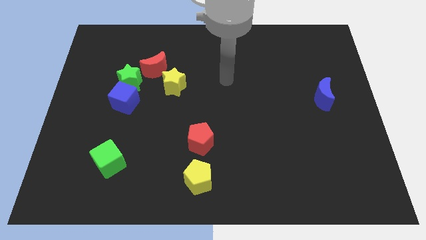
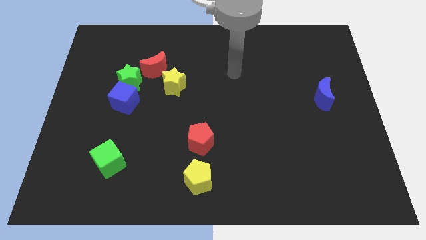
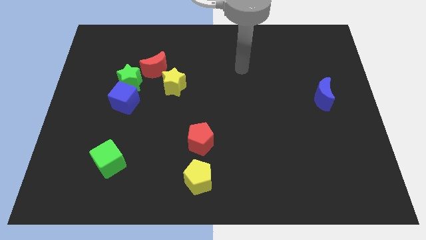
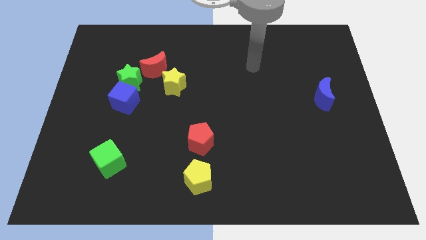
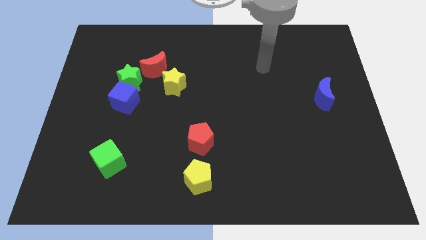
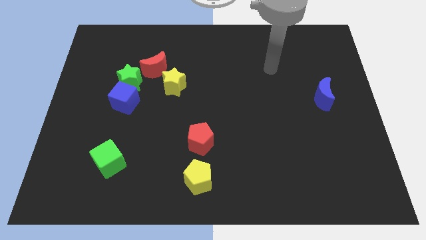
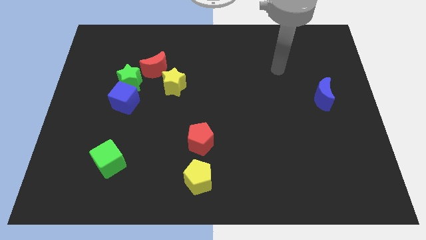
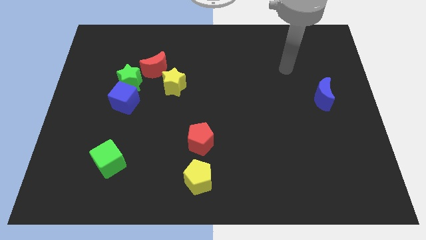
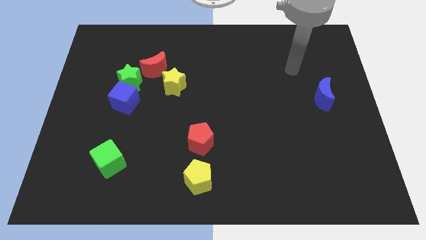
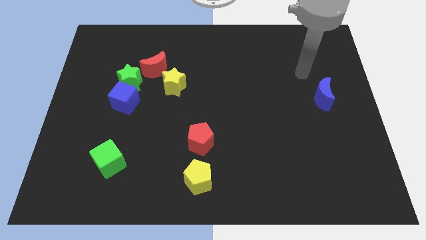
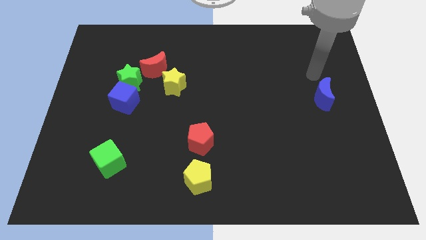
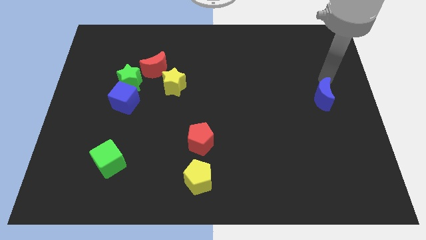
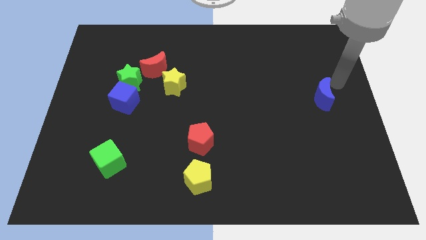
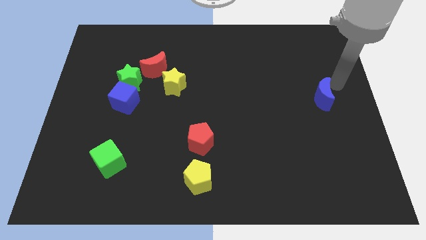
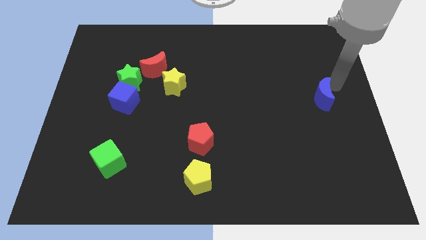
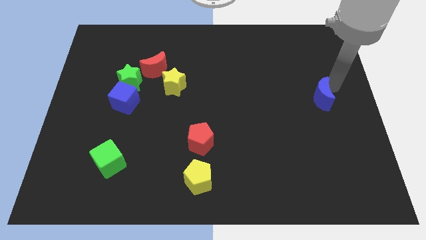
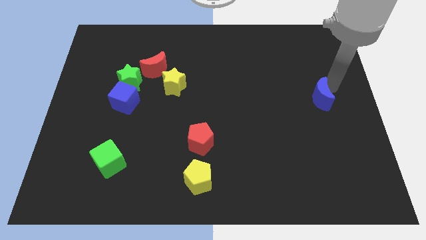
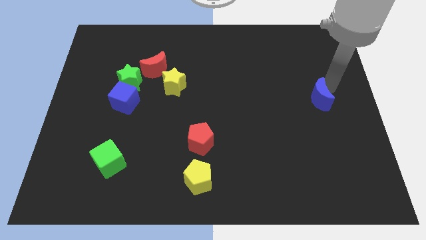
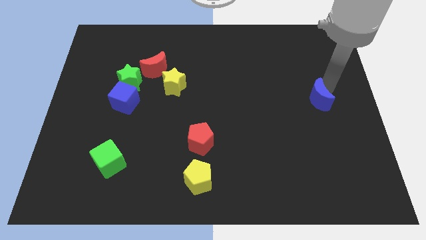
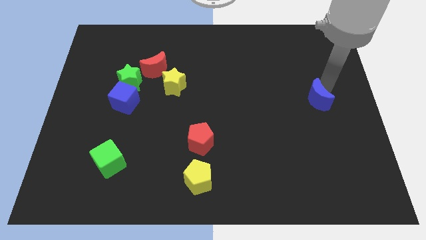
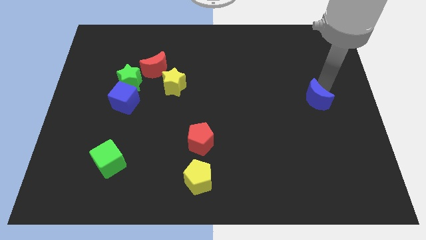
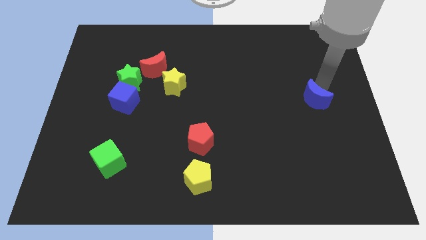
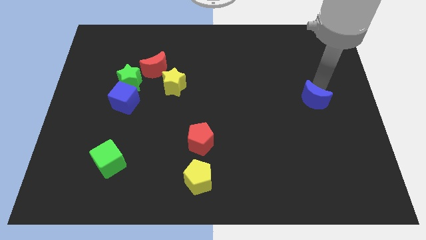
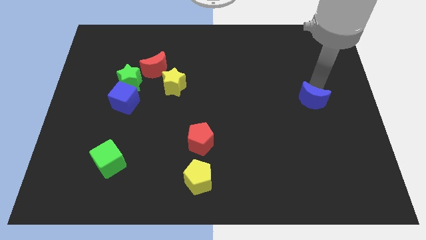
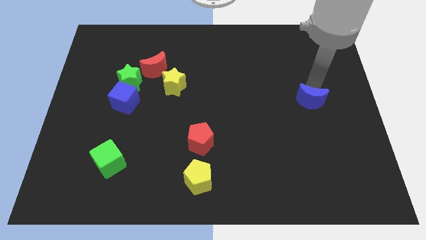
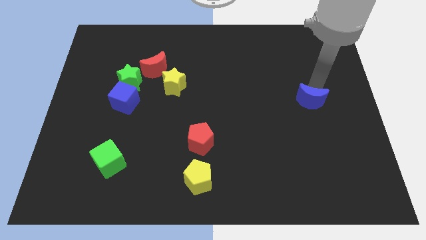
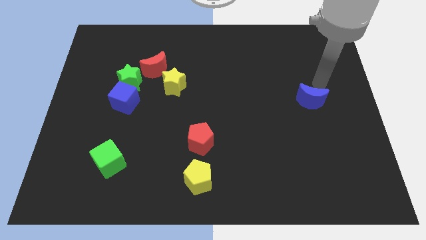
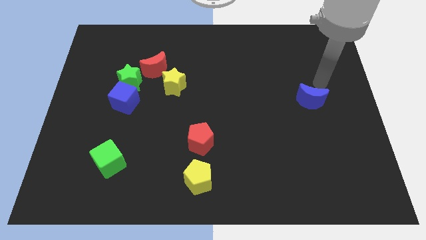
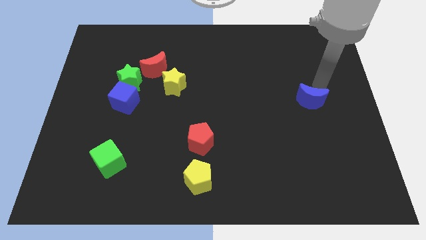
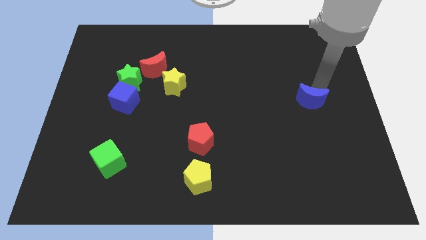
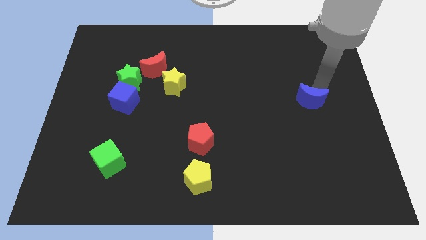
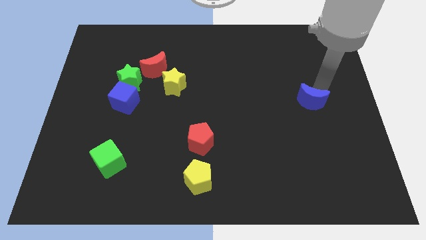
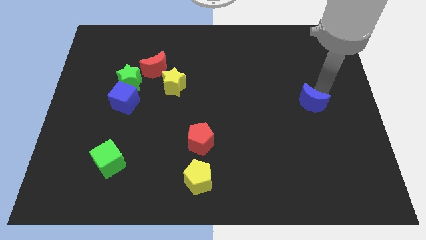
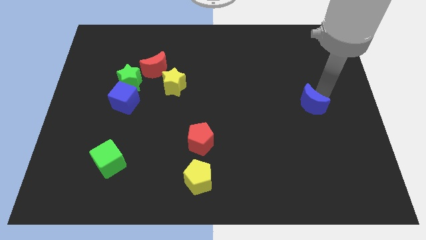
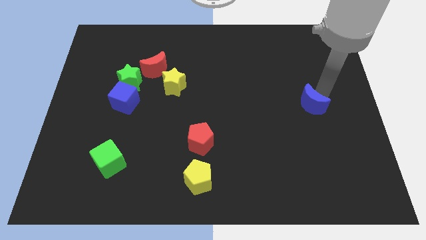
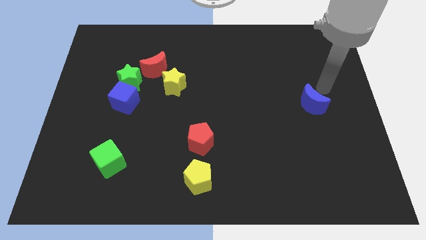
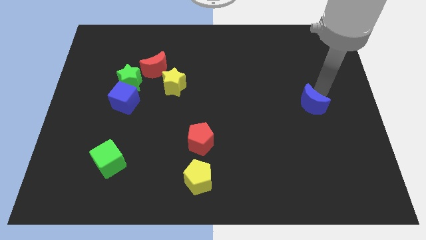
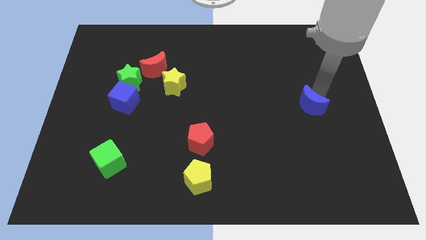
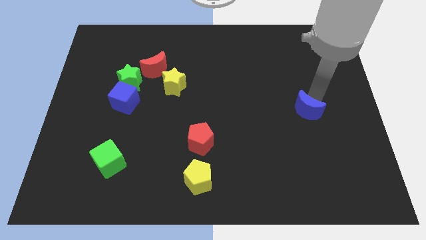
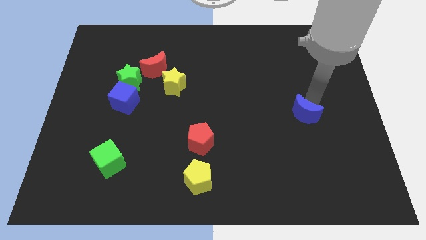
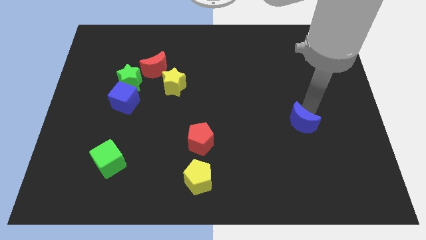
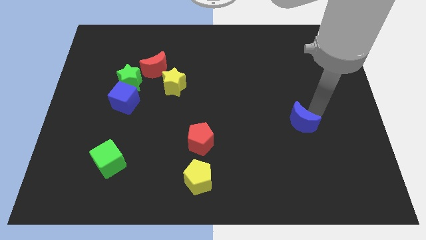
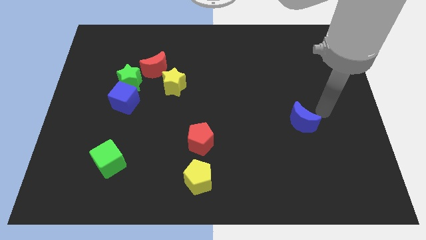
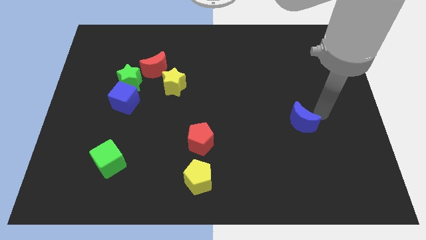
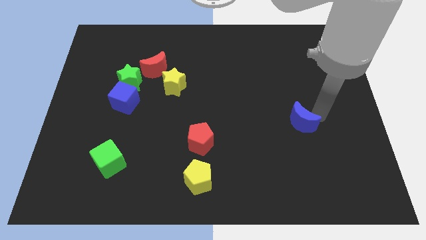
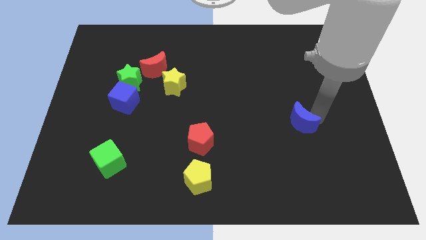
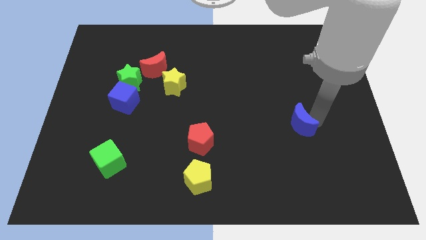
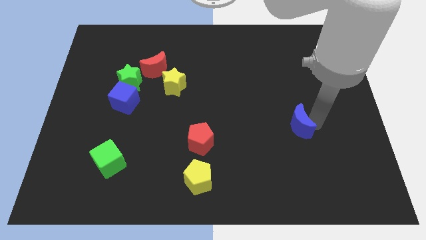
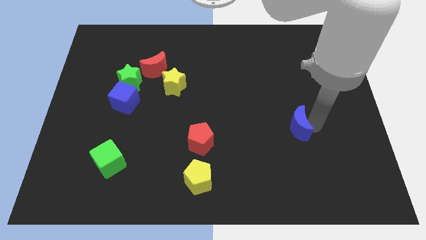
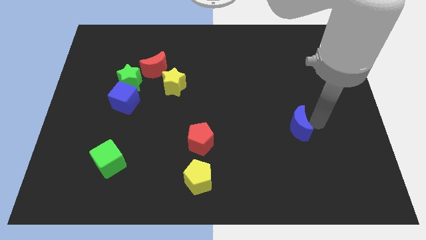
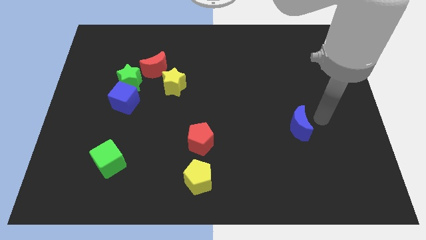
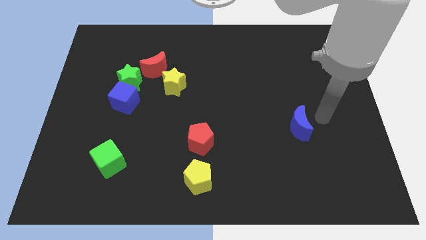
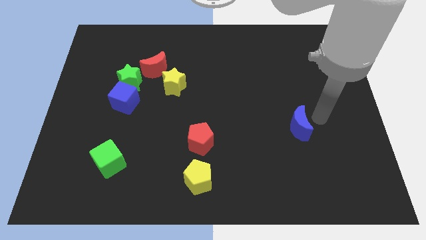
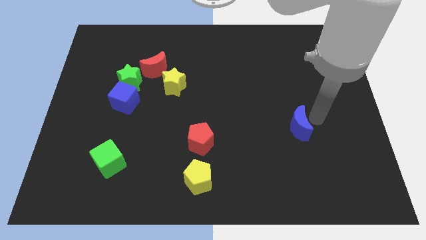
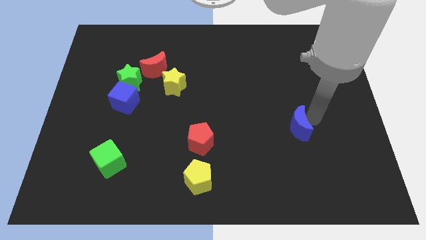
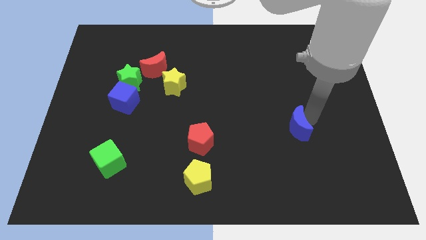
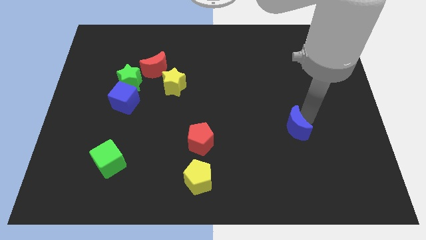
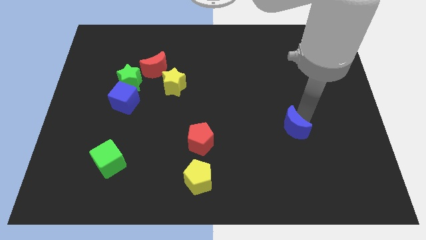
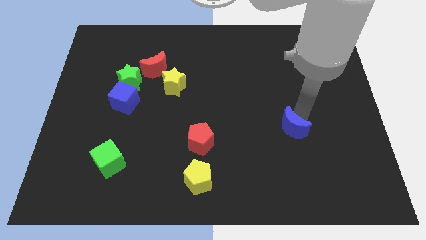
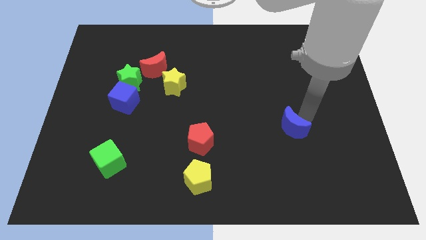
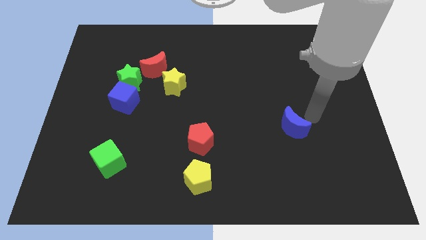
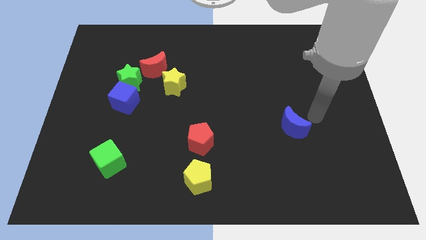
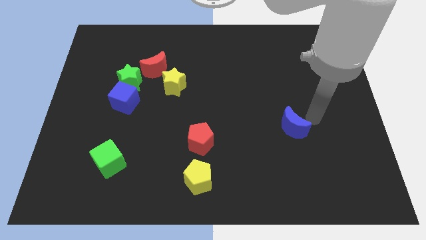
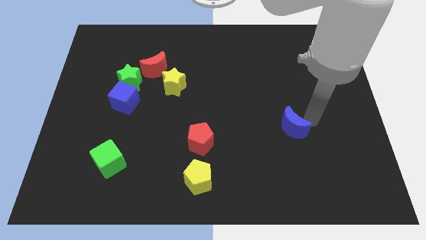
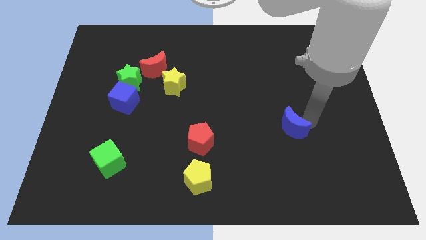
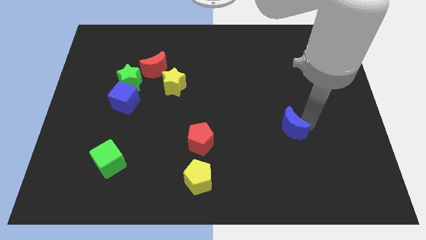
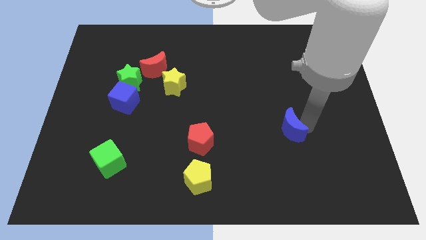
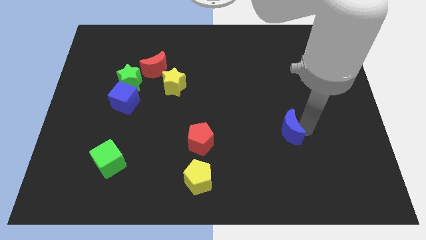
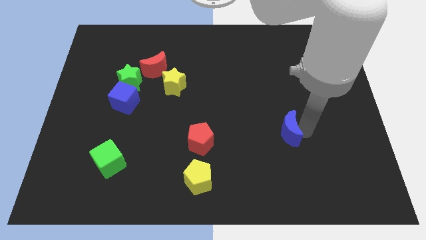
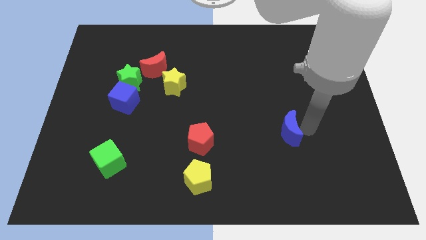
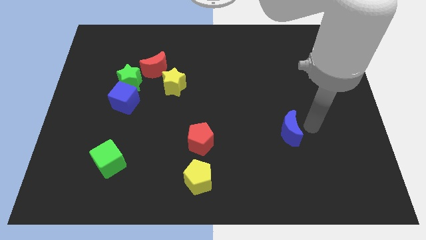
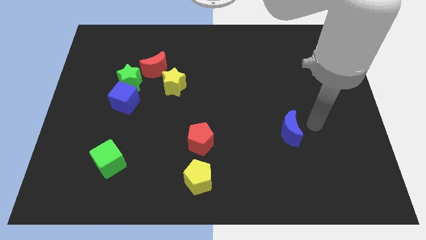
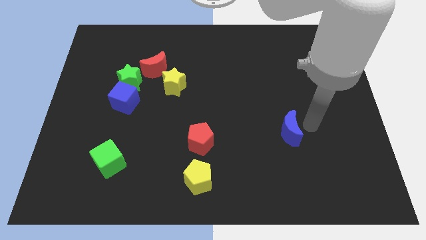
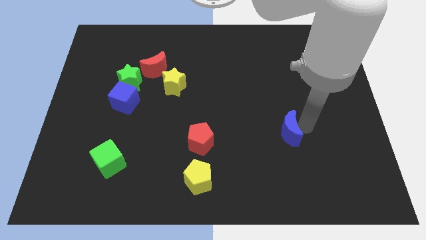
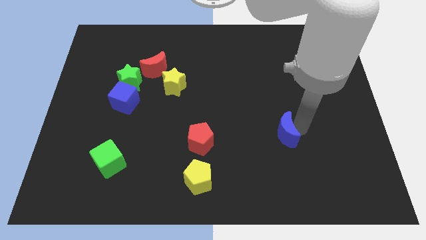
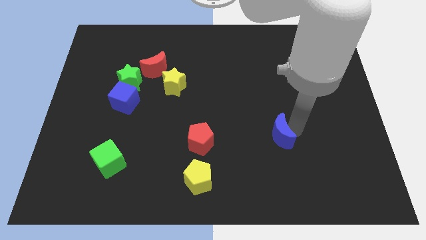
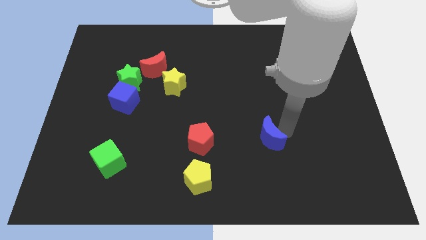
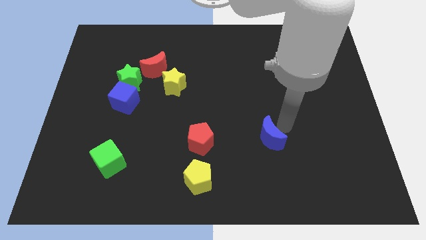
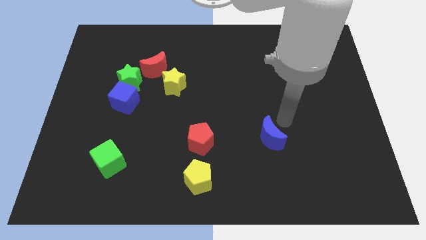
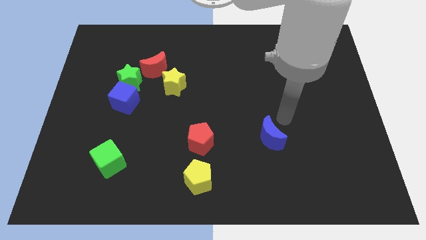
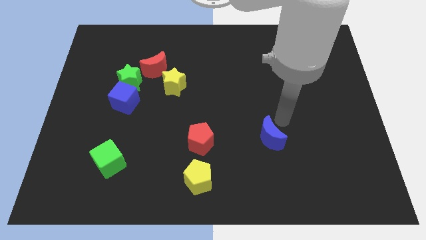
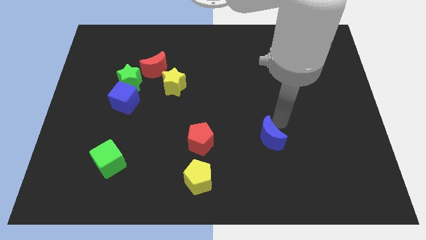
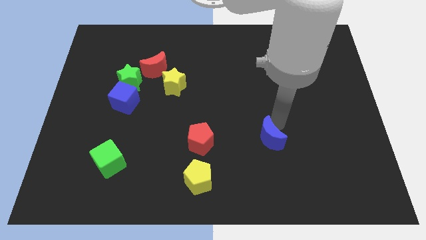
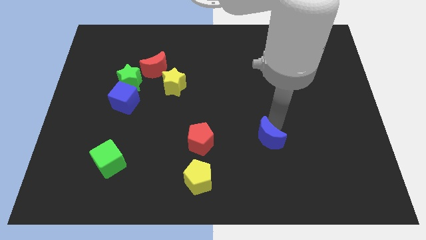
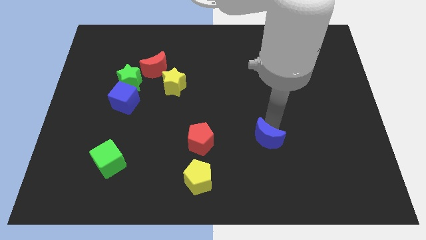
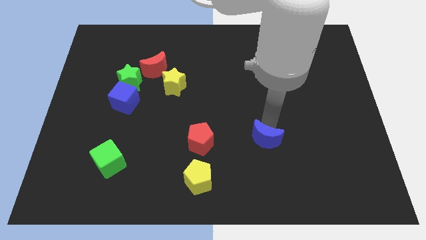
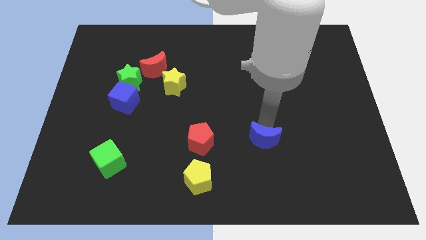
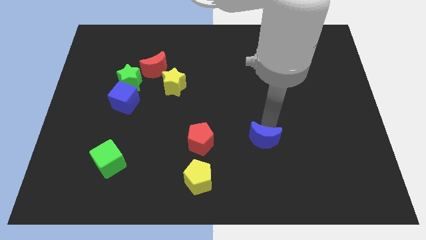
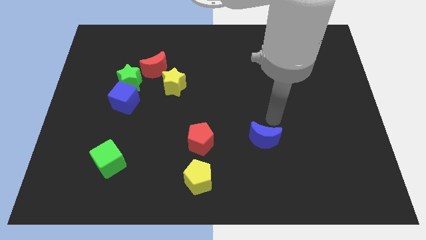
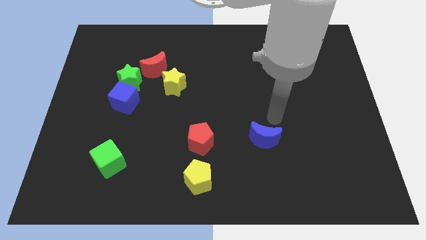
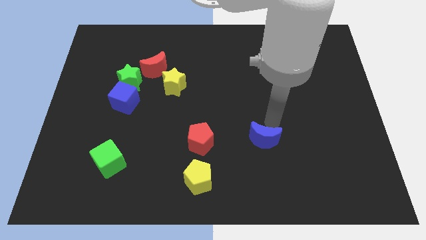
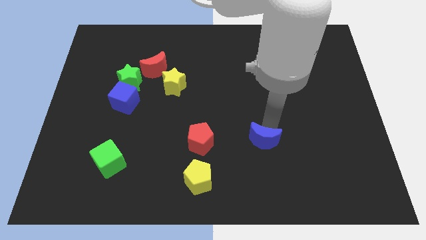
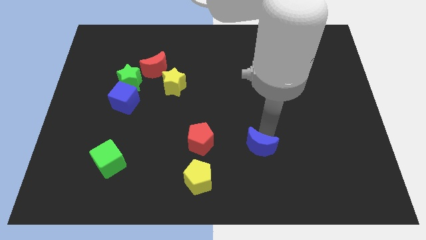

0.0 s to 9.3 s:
slide the blue moon down and then to the left
